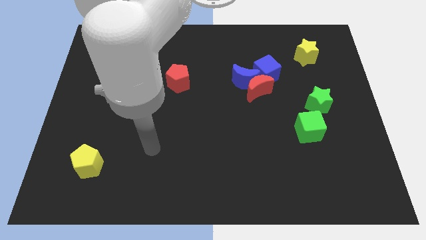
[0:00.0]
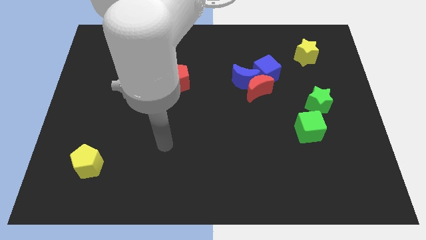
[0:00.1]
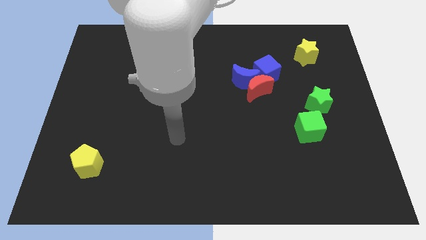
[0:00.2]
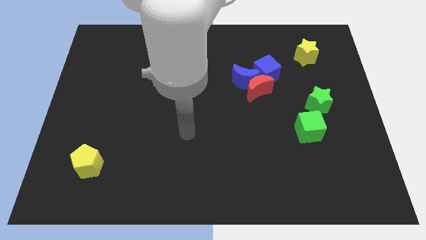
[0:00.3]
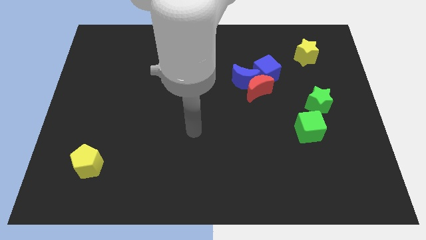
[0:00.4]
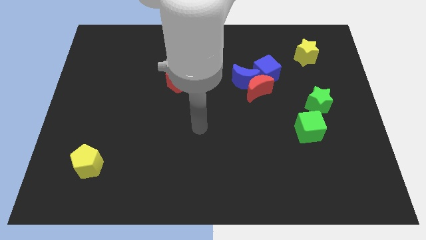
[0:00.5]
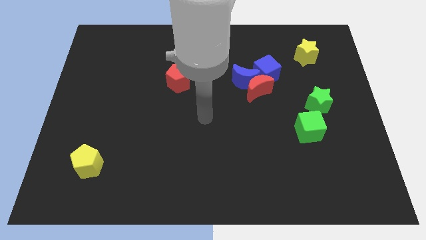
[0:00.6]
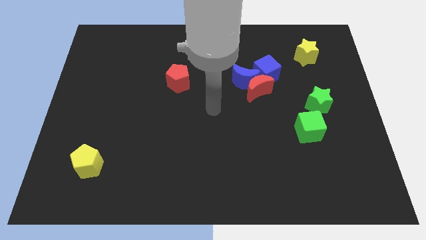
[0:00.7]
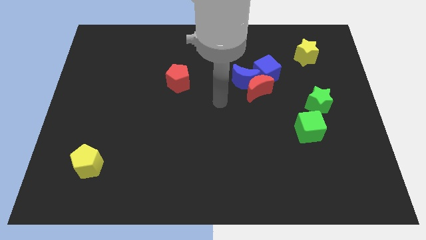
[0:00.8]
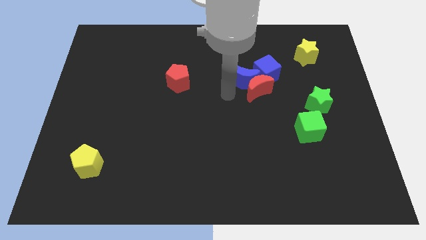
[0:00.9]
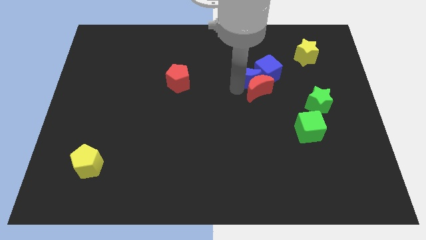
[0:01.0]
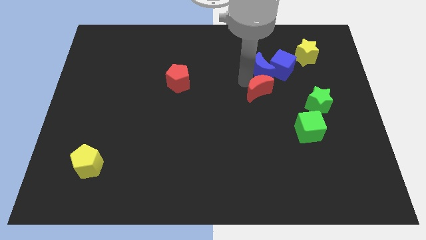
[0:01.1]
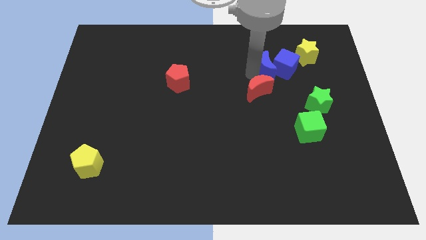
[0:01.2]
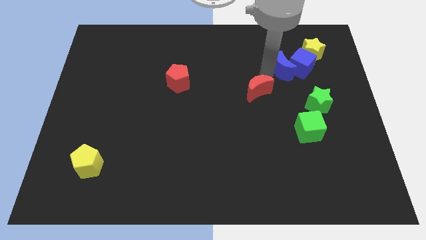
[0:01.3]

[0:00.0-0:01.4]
move the red moon away from the blue moon and blue cube

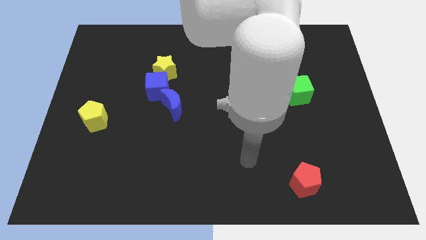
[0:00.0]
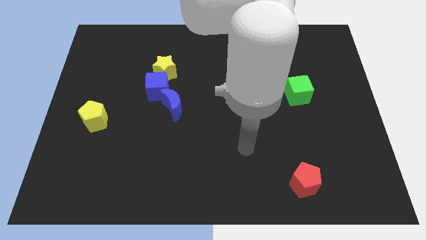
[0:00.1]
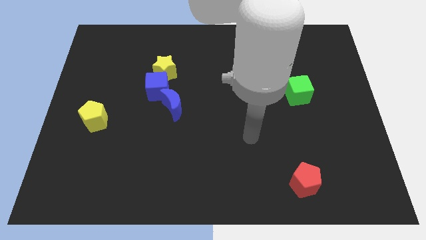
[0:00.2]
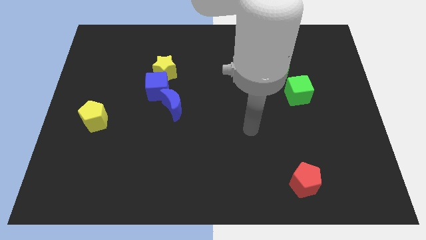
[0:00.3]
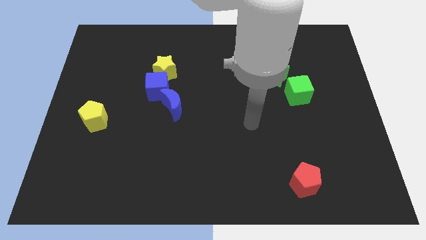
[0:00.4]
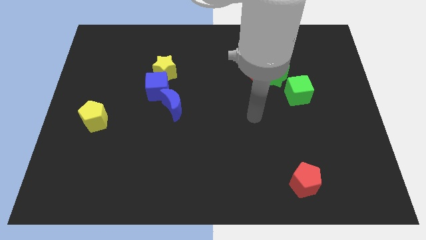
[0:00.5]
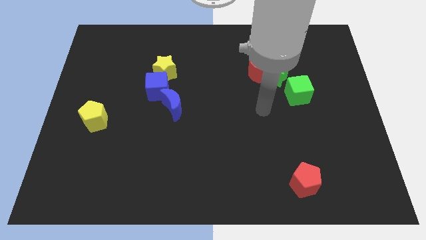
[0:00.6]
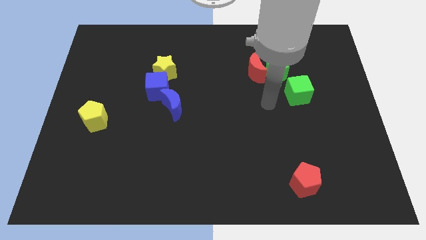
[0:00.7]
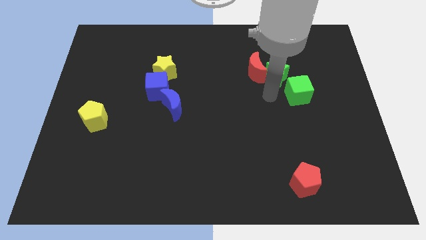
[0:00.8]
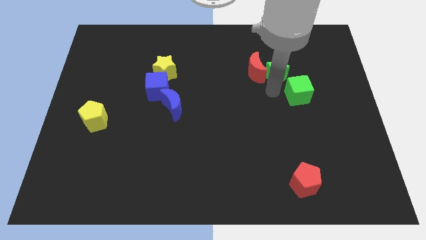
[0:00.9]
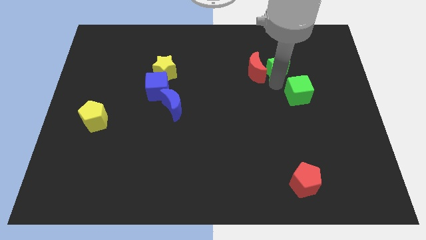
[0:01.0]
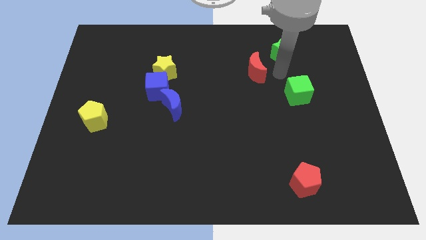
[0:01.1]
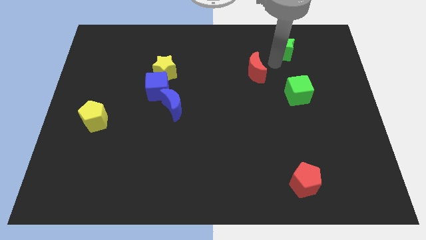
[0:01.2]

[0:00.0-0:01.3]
pull the red moon apart from the green star

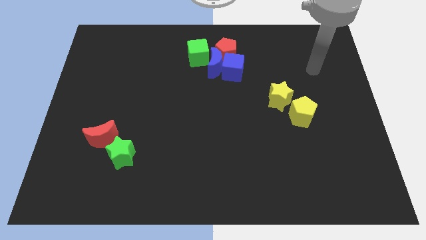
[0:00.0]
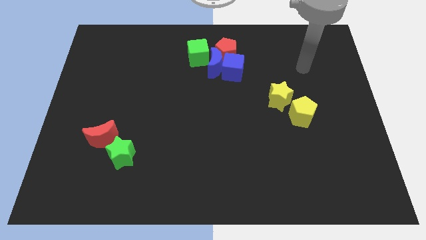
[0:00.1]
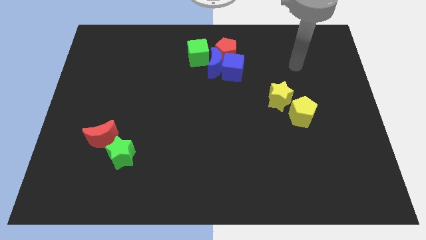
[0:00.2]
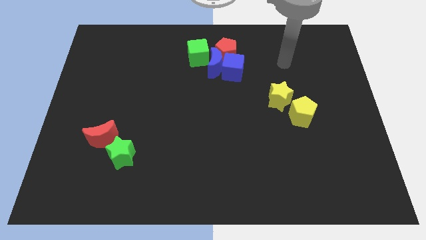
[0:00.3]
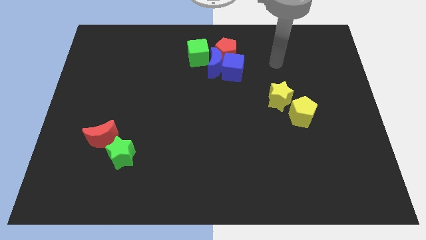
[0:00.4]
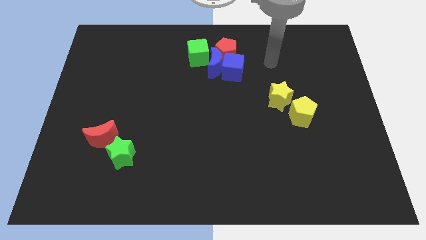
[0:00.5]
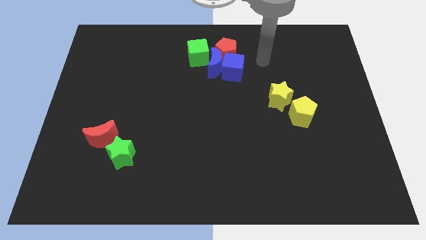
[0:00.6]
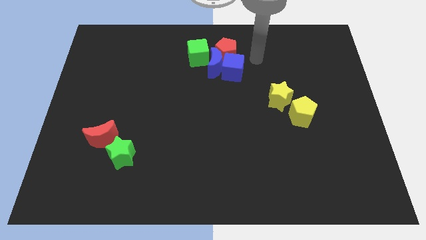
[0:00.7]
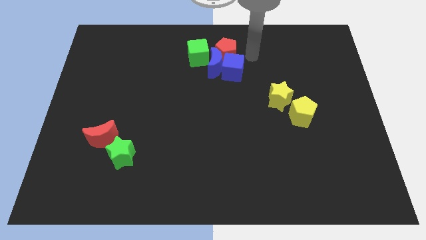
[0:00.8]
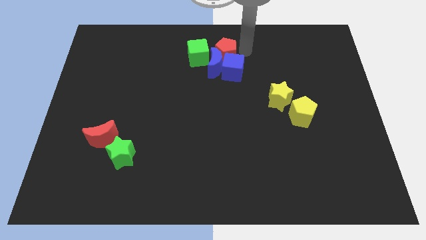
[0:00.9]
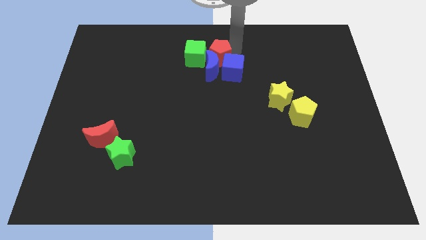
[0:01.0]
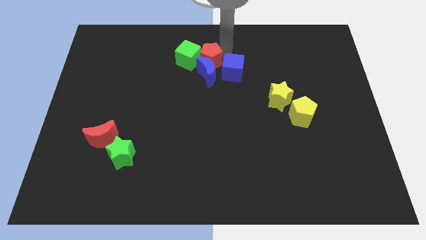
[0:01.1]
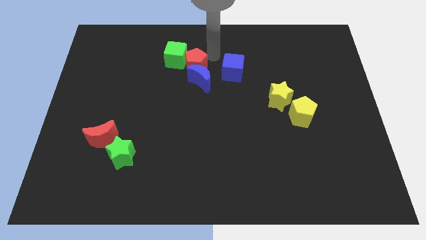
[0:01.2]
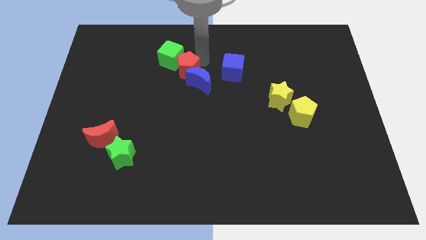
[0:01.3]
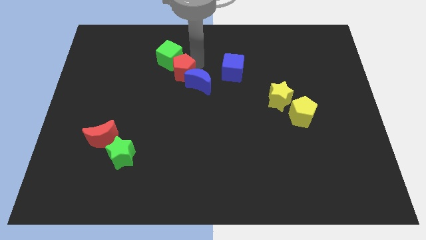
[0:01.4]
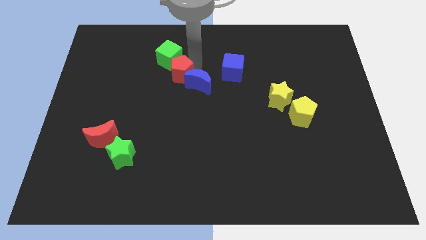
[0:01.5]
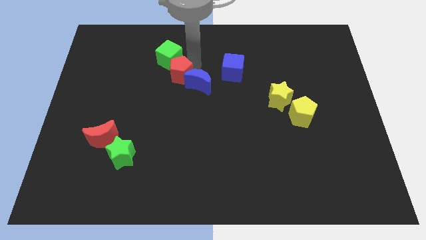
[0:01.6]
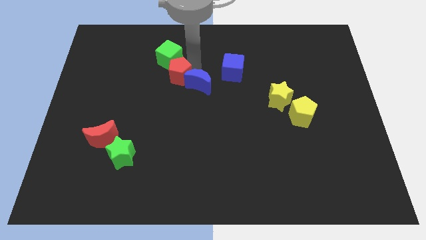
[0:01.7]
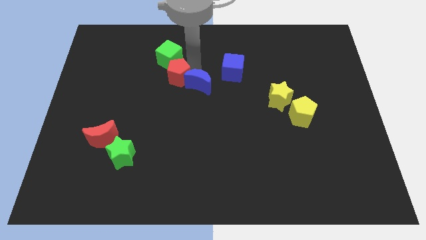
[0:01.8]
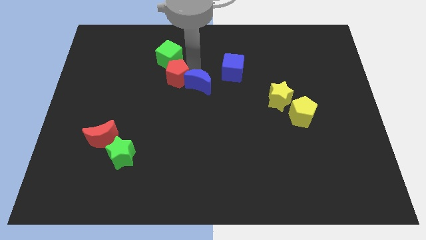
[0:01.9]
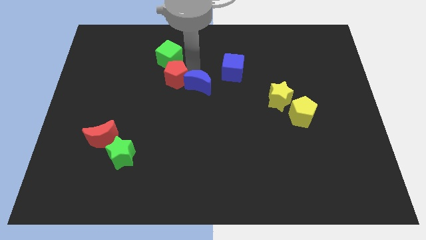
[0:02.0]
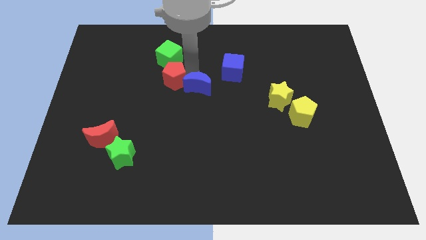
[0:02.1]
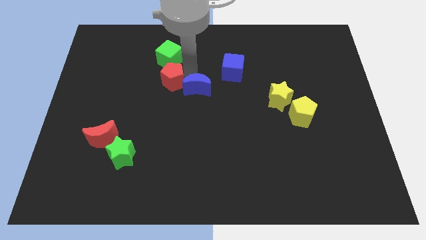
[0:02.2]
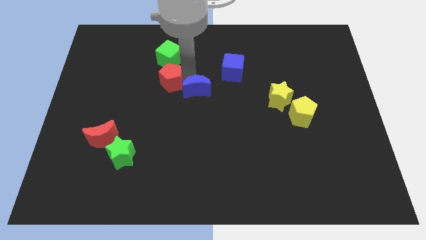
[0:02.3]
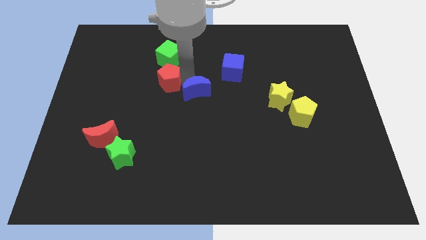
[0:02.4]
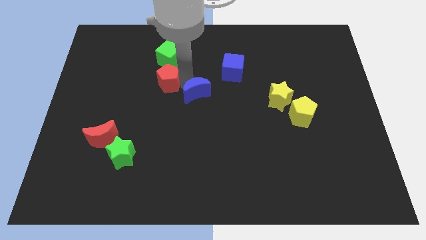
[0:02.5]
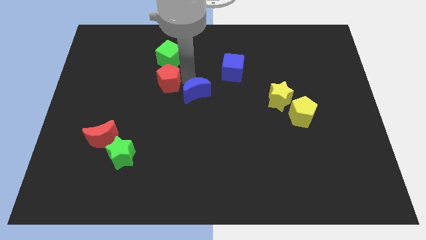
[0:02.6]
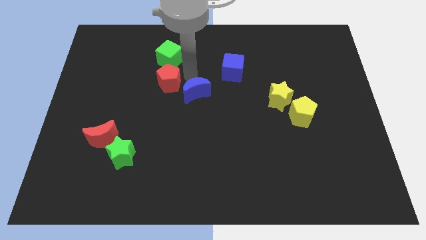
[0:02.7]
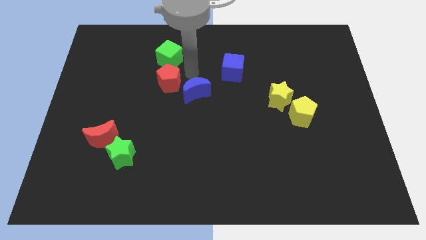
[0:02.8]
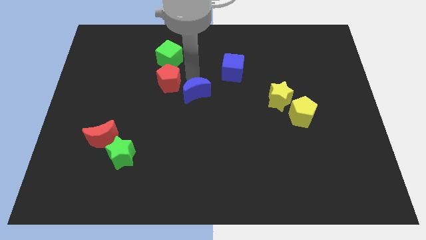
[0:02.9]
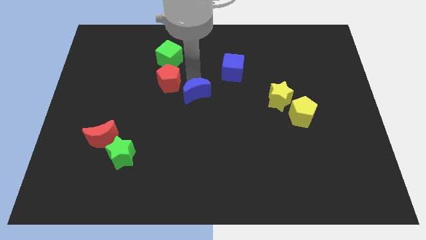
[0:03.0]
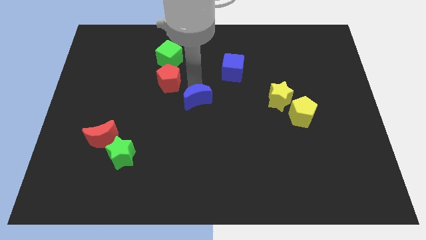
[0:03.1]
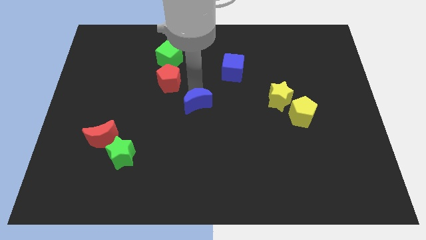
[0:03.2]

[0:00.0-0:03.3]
move the blue moon away from the group

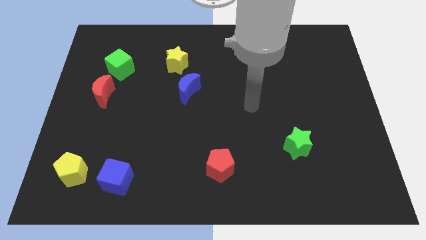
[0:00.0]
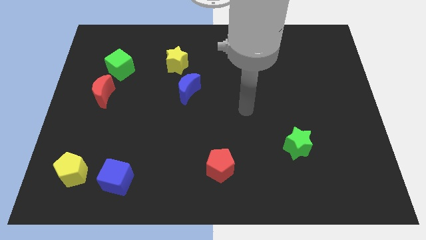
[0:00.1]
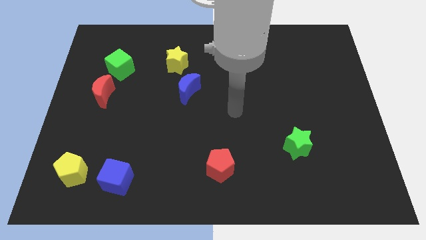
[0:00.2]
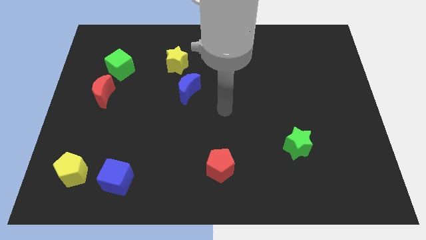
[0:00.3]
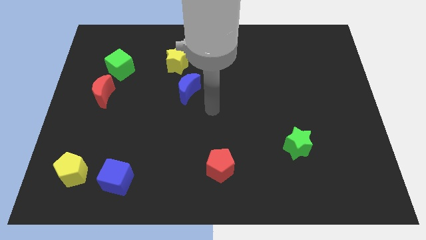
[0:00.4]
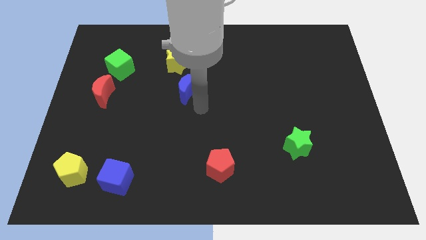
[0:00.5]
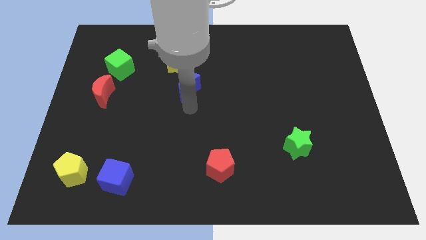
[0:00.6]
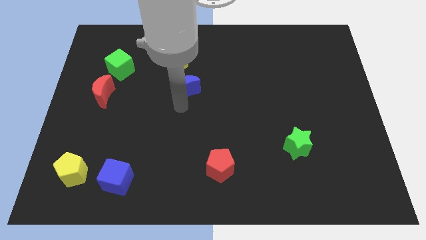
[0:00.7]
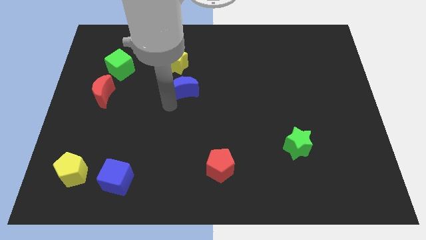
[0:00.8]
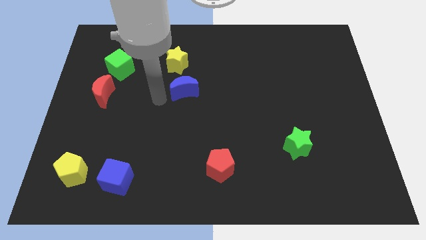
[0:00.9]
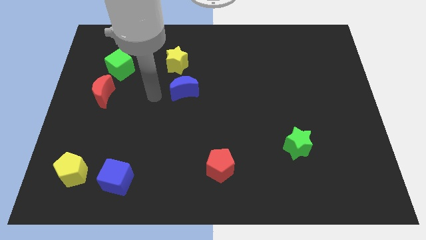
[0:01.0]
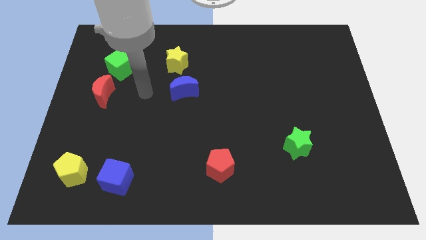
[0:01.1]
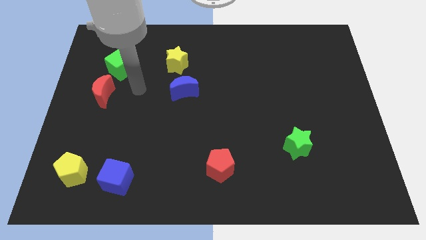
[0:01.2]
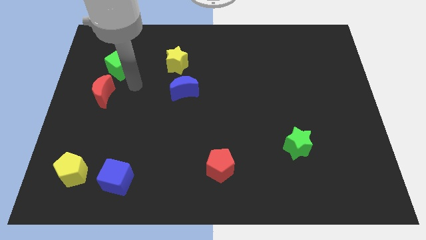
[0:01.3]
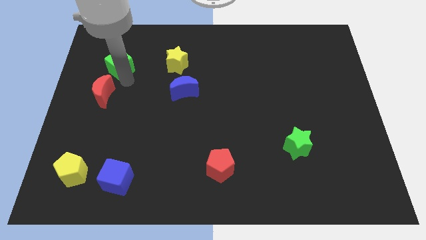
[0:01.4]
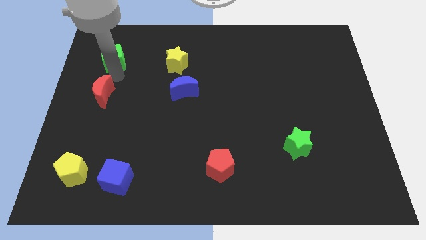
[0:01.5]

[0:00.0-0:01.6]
move the red moon away from the green cube

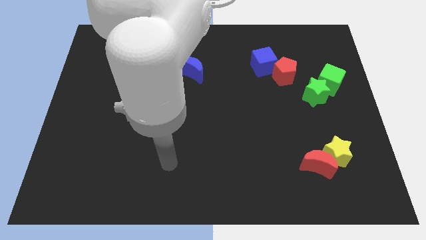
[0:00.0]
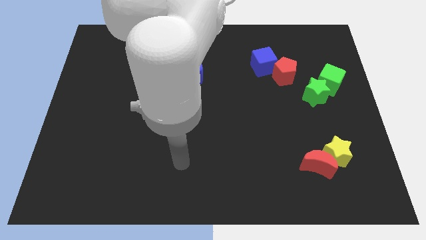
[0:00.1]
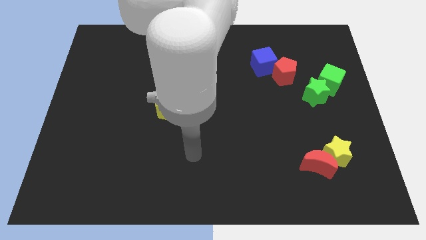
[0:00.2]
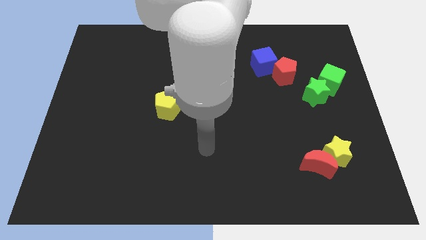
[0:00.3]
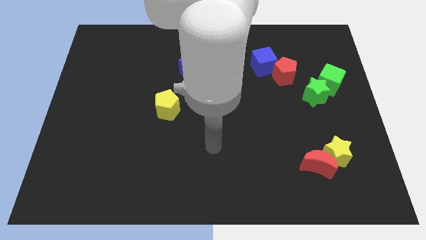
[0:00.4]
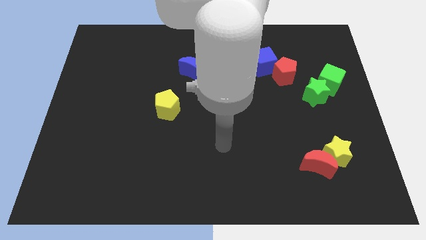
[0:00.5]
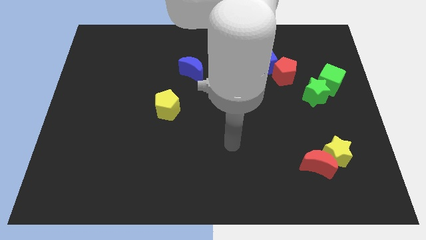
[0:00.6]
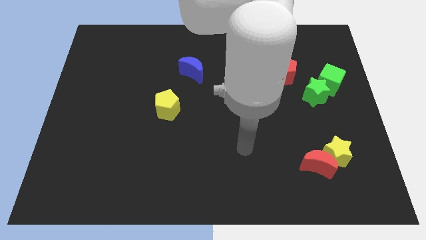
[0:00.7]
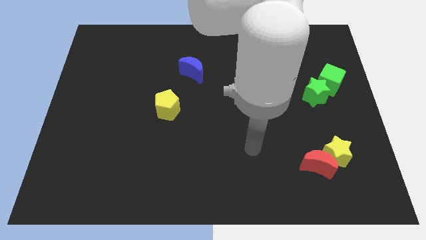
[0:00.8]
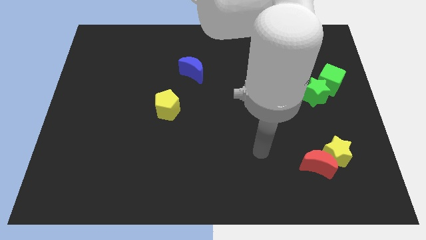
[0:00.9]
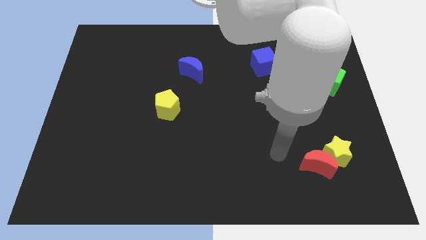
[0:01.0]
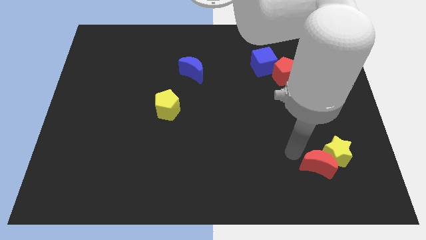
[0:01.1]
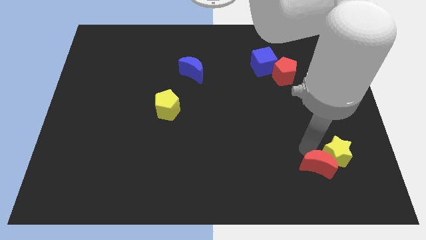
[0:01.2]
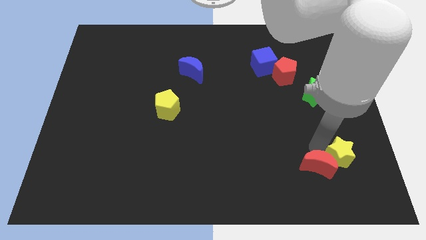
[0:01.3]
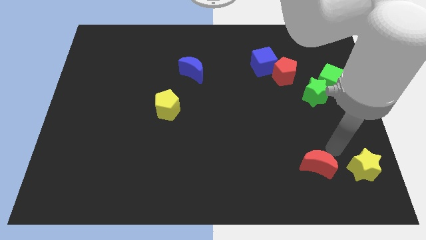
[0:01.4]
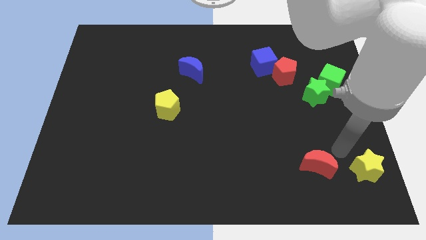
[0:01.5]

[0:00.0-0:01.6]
pull the red moon apart from the yellow star
